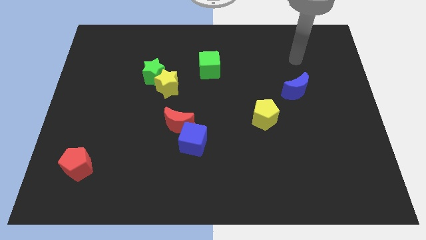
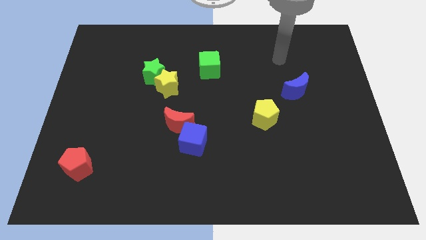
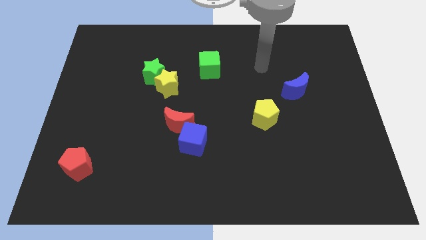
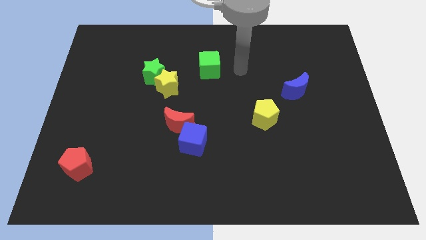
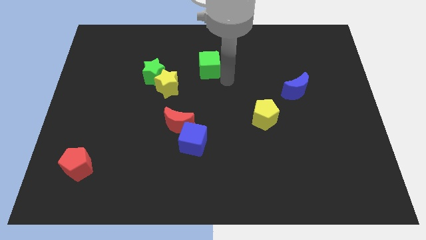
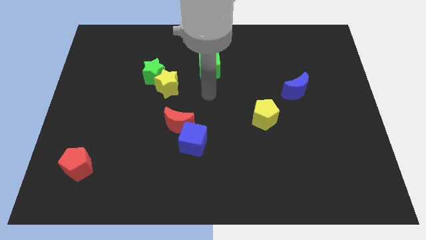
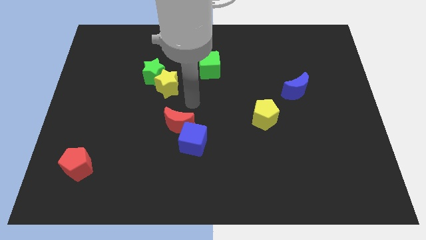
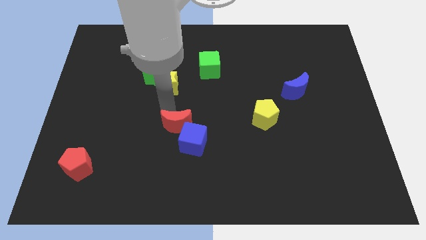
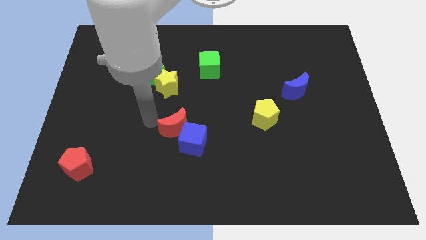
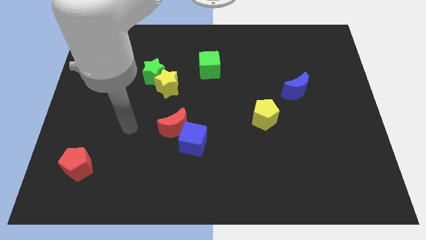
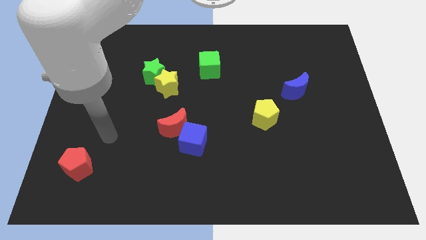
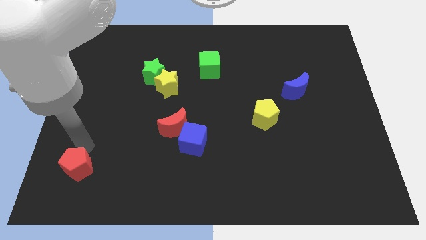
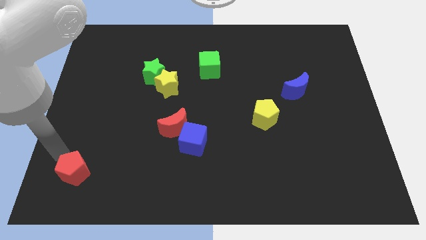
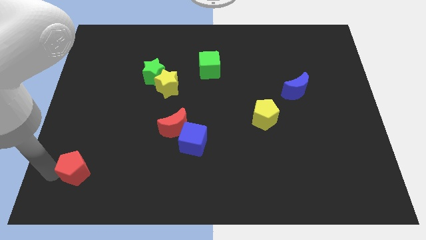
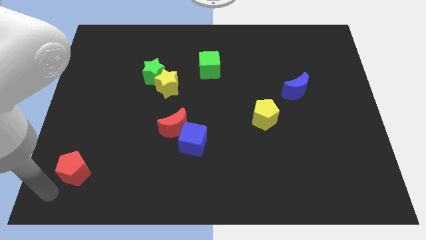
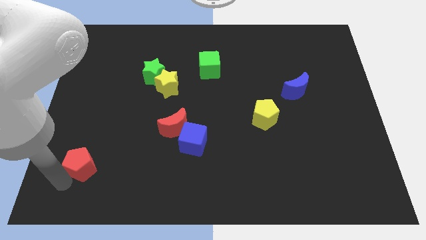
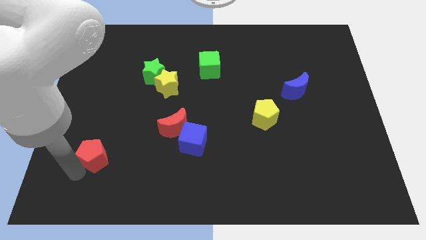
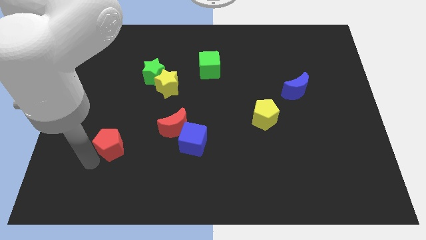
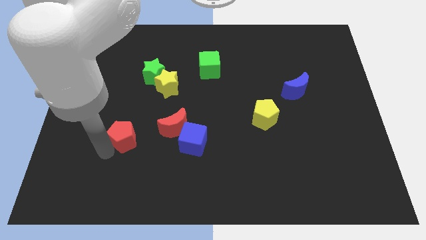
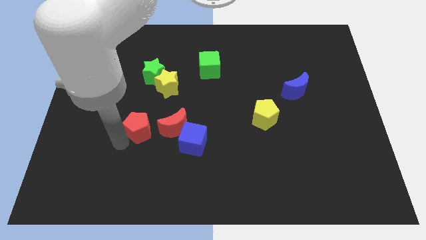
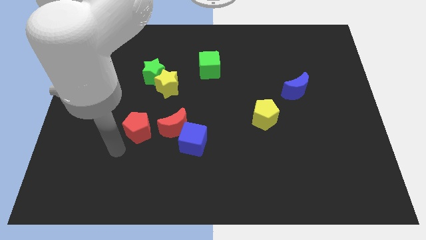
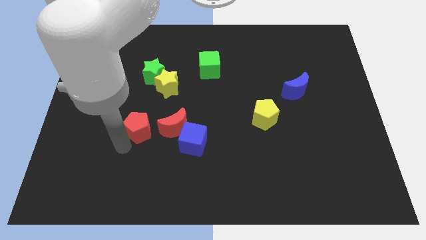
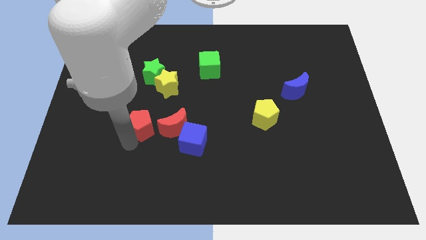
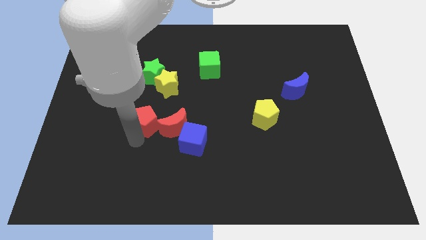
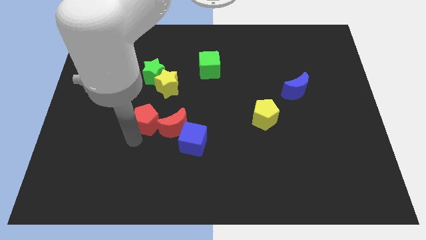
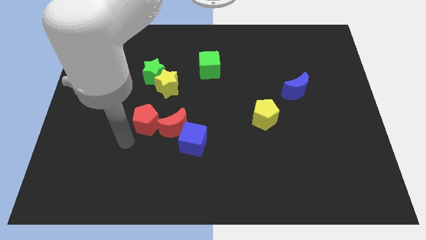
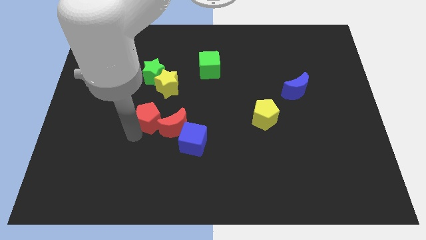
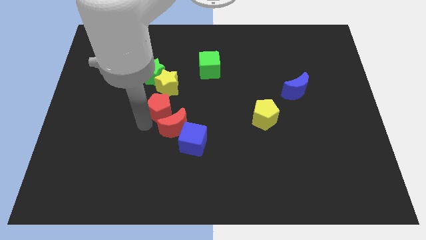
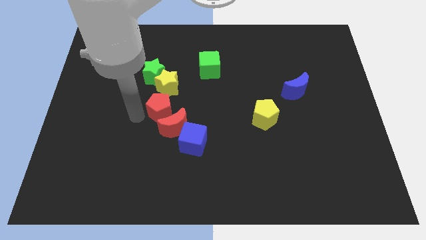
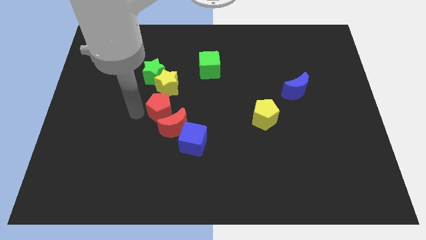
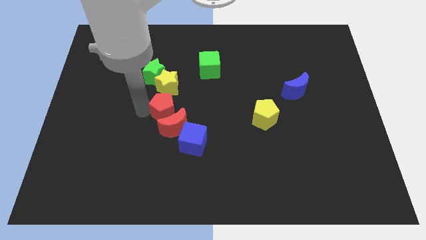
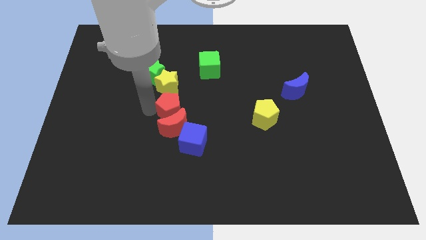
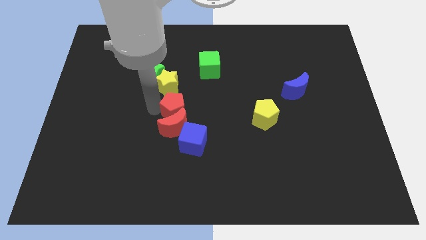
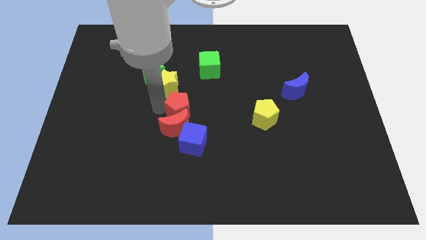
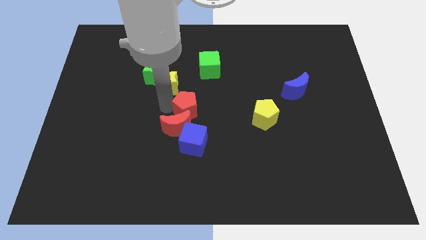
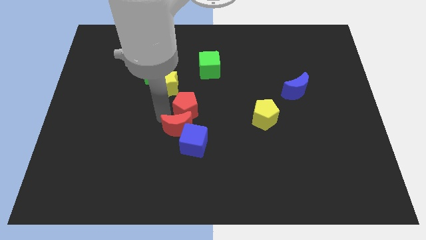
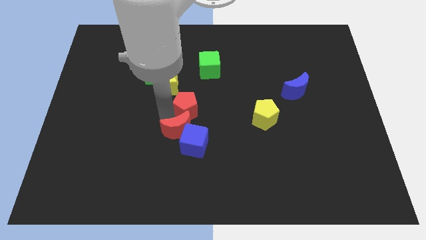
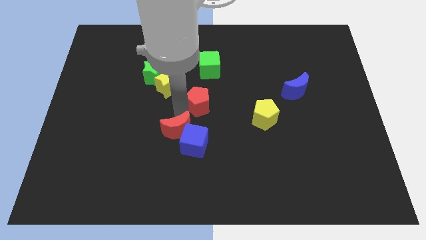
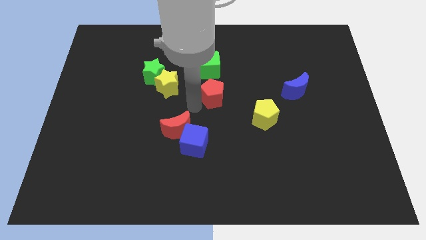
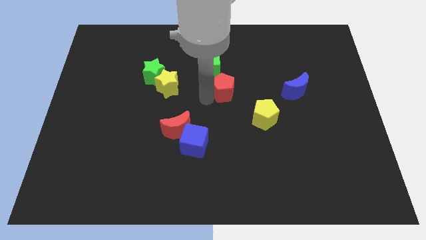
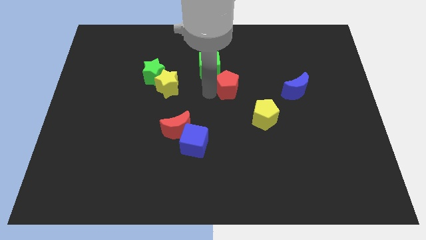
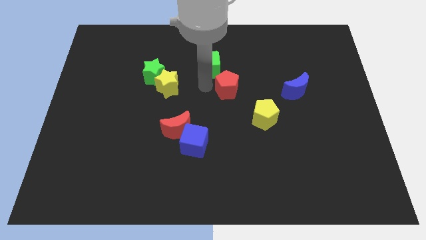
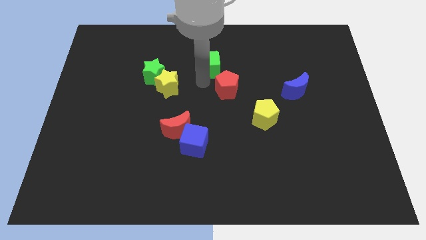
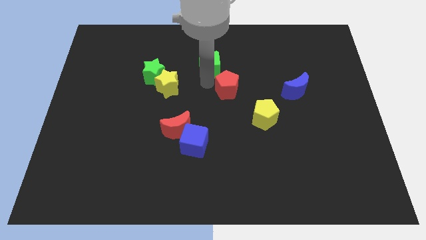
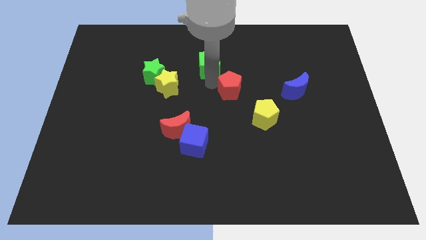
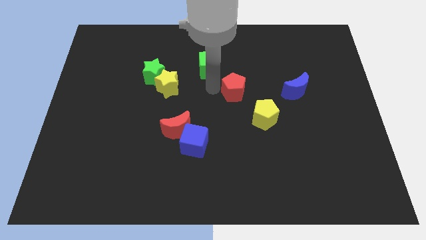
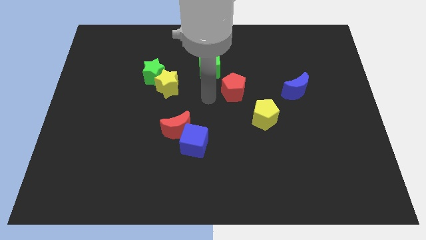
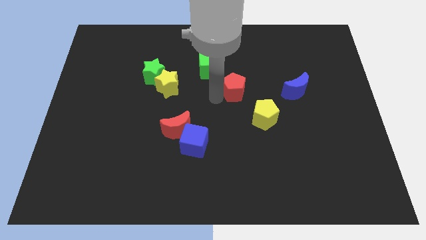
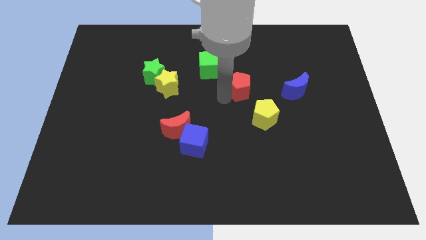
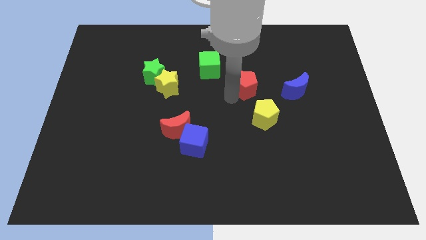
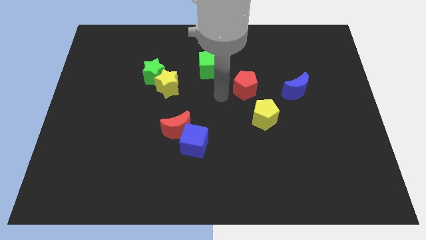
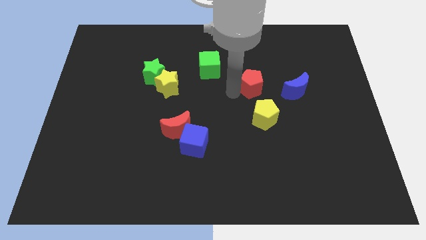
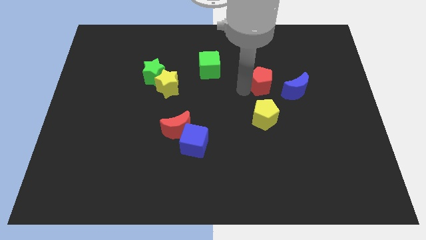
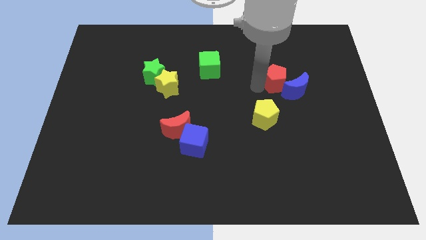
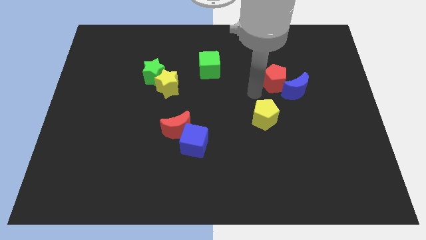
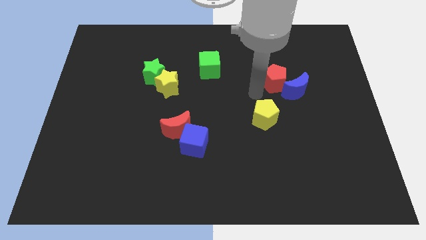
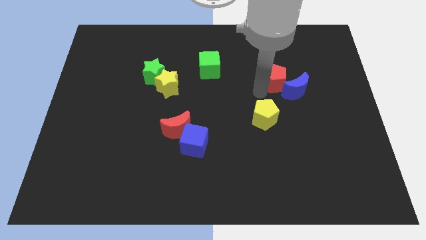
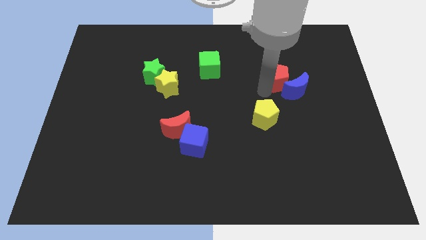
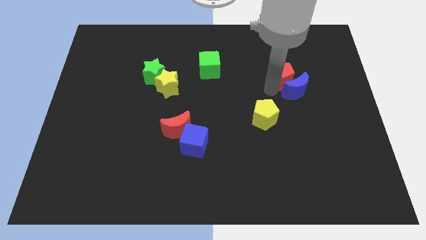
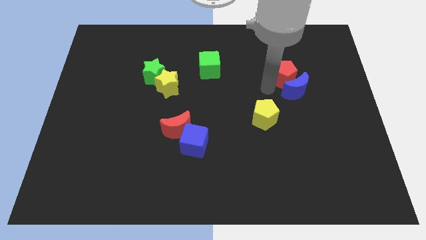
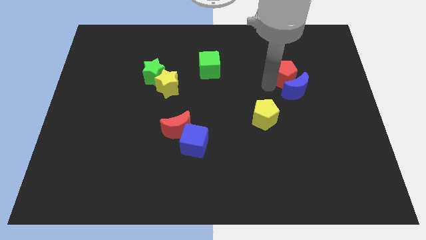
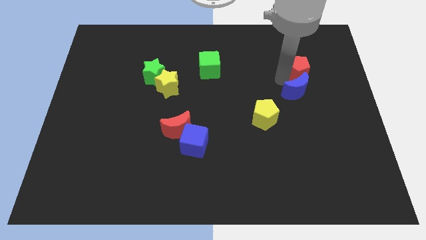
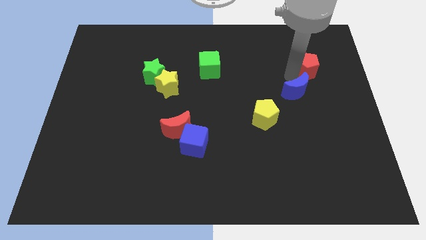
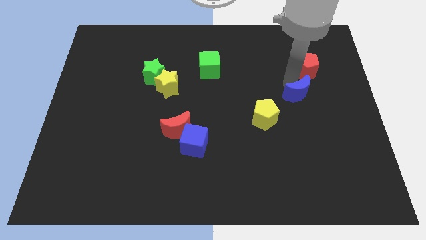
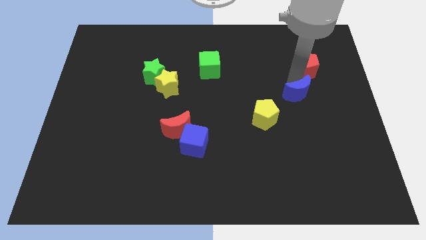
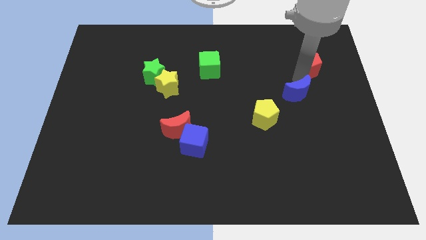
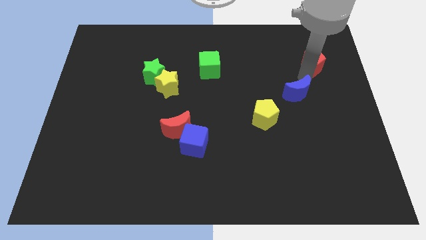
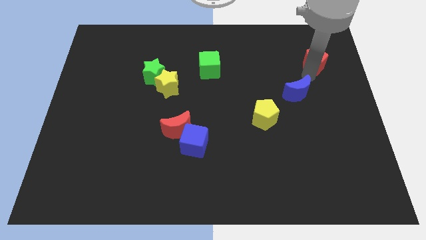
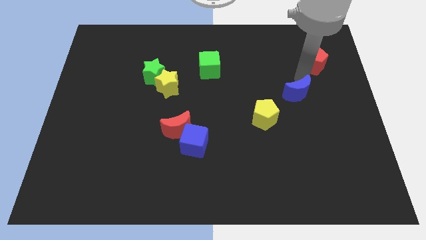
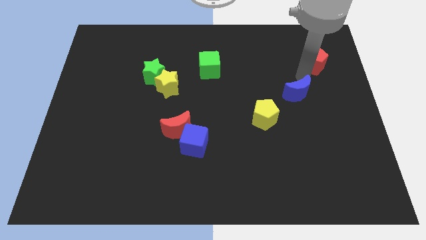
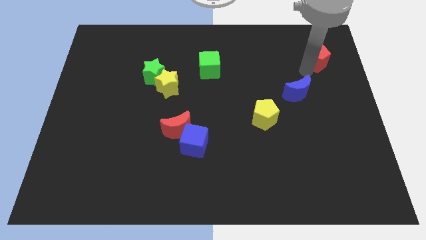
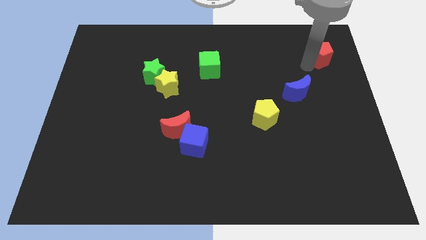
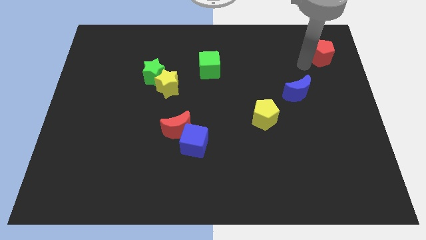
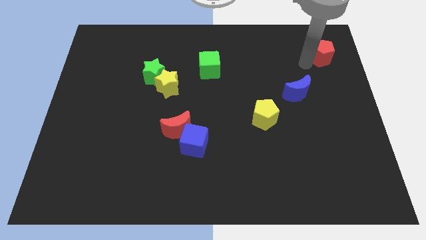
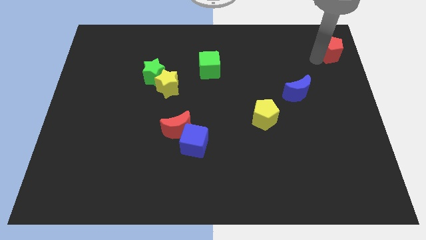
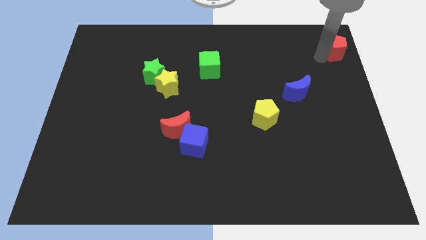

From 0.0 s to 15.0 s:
move the red pentagon to the top right corner
